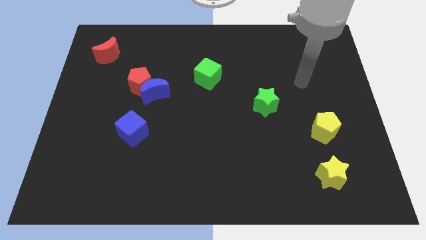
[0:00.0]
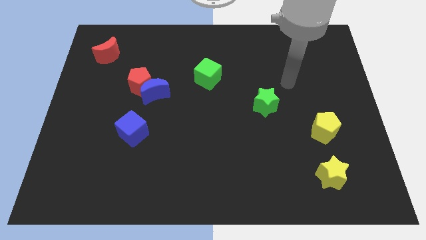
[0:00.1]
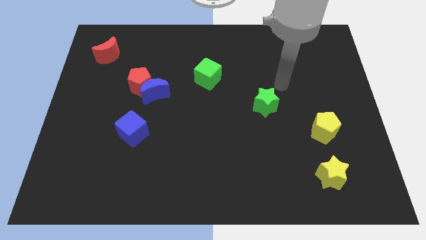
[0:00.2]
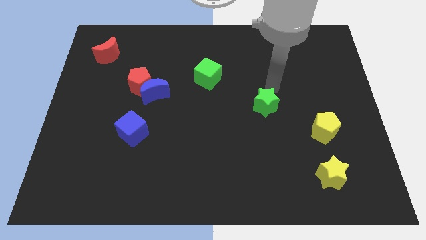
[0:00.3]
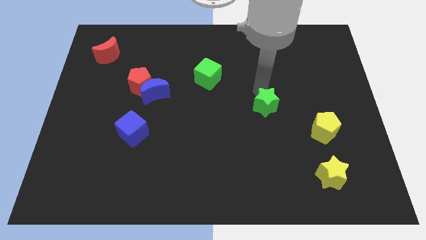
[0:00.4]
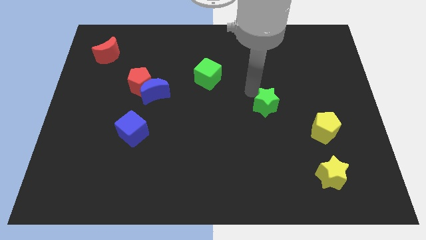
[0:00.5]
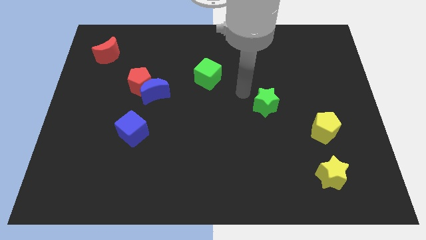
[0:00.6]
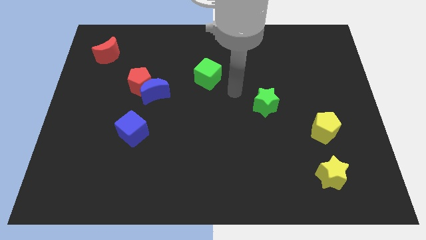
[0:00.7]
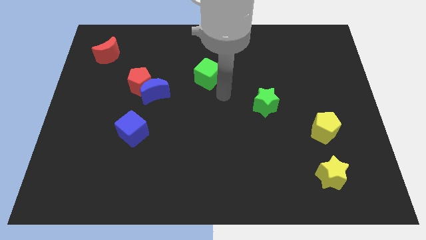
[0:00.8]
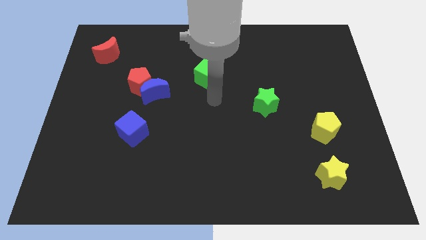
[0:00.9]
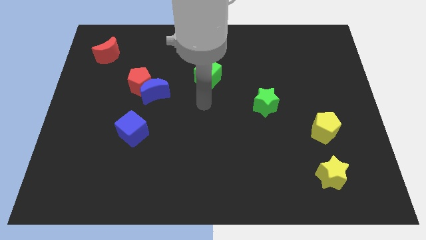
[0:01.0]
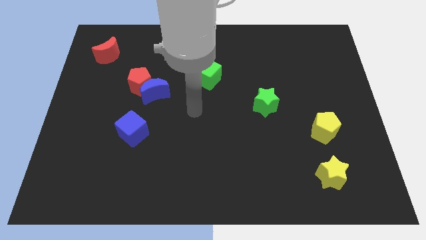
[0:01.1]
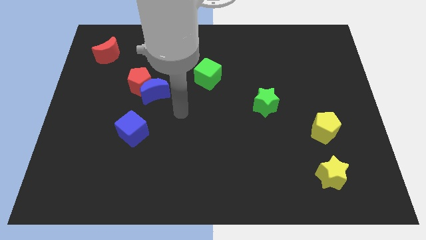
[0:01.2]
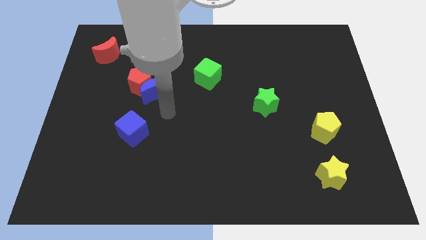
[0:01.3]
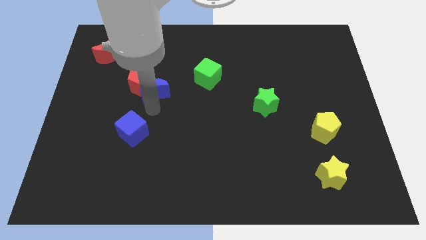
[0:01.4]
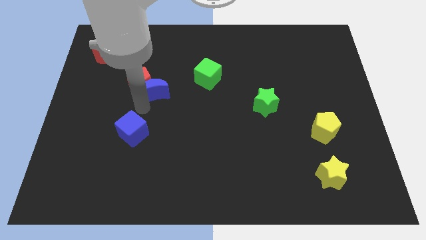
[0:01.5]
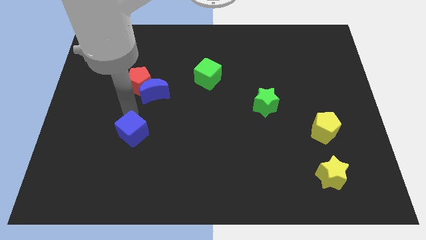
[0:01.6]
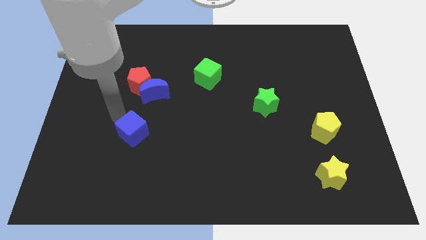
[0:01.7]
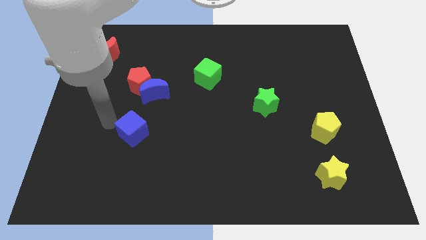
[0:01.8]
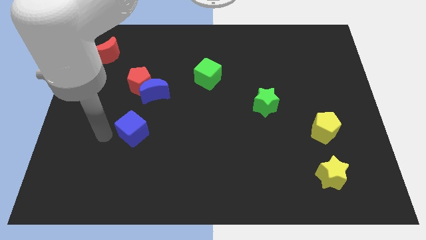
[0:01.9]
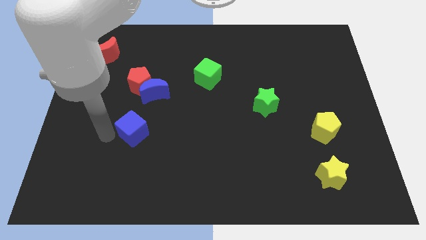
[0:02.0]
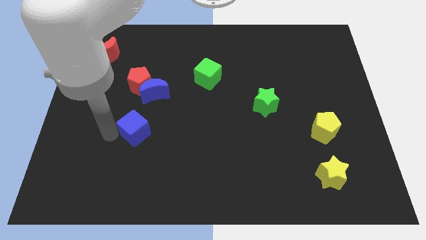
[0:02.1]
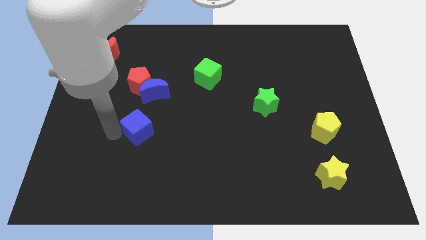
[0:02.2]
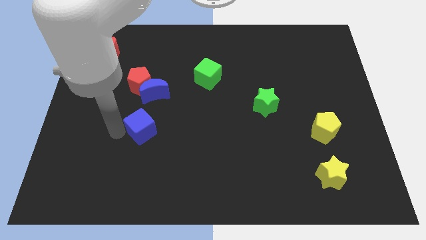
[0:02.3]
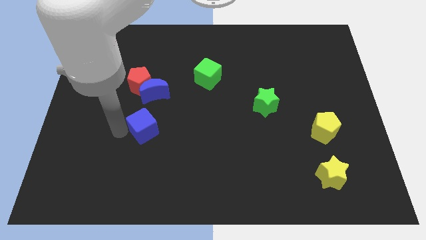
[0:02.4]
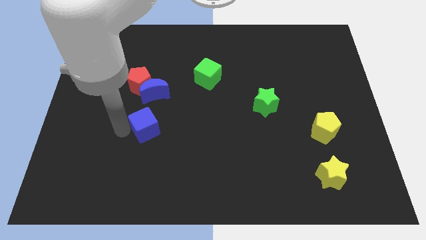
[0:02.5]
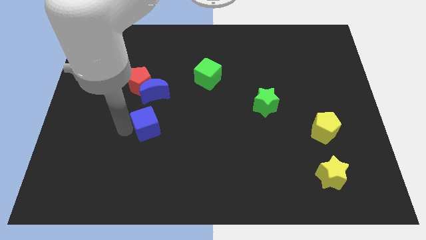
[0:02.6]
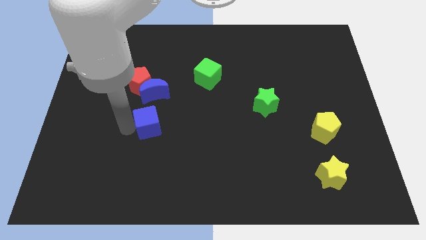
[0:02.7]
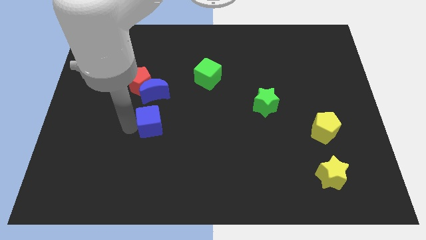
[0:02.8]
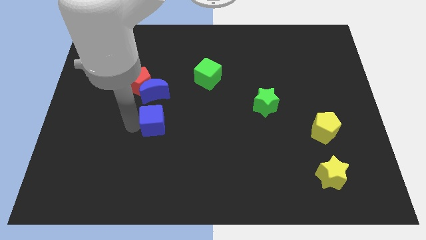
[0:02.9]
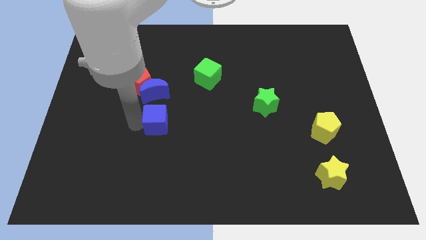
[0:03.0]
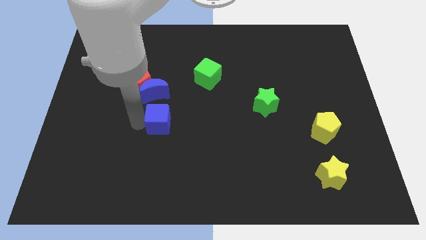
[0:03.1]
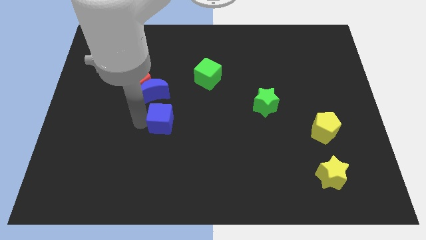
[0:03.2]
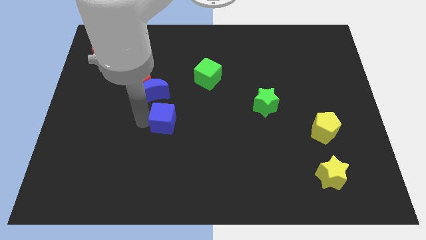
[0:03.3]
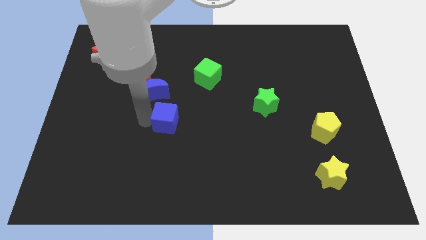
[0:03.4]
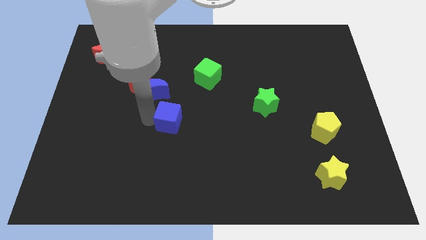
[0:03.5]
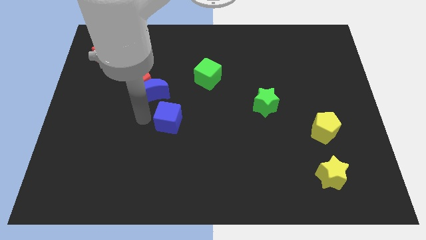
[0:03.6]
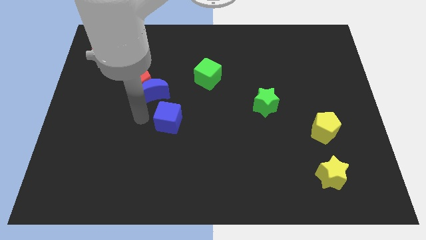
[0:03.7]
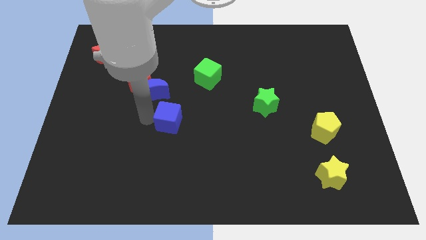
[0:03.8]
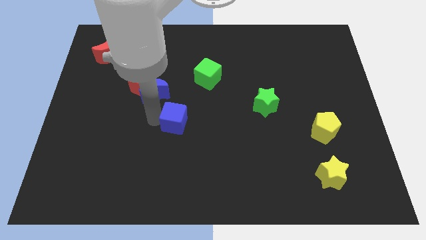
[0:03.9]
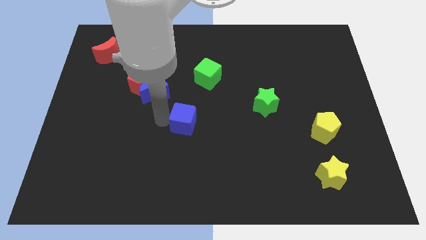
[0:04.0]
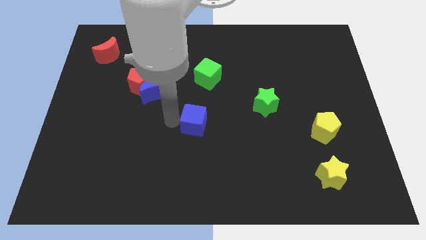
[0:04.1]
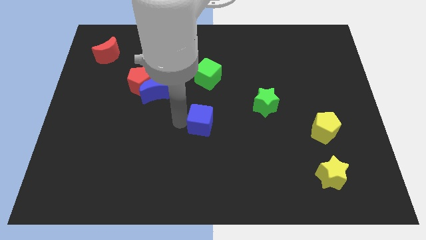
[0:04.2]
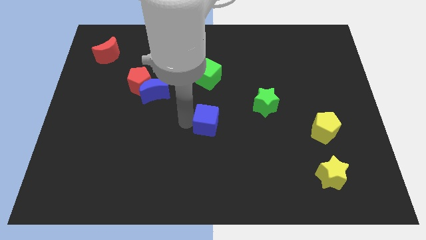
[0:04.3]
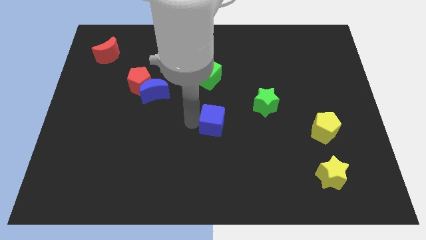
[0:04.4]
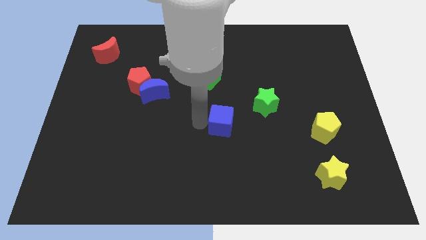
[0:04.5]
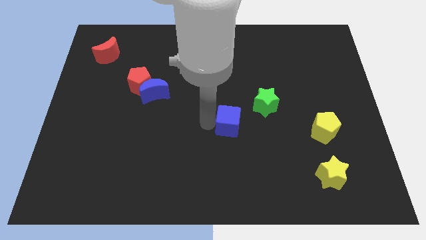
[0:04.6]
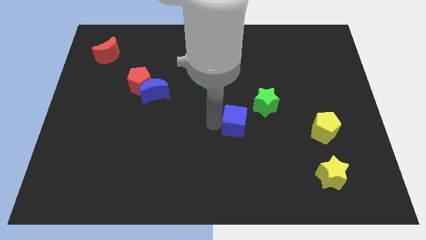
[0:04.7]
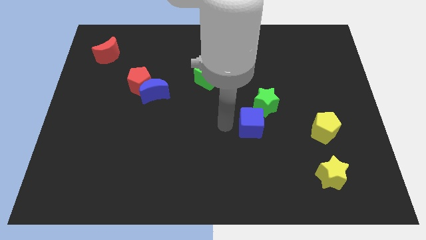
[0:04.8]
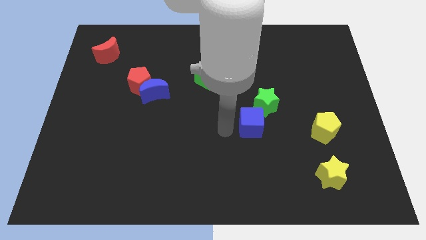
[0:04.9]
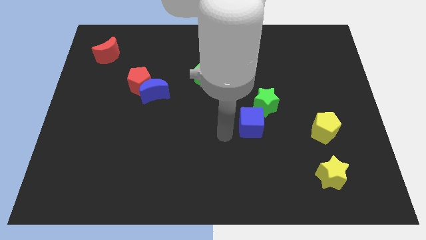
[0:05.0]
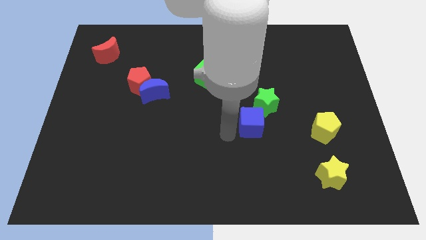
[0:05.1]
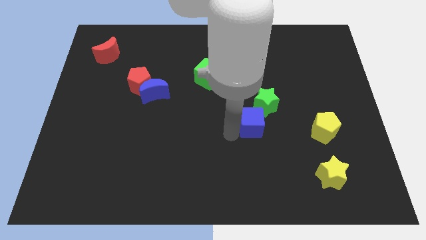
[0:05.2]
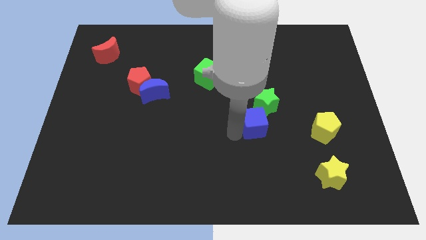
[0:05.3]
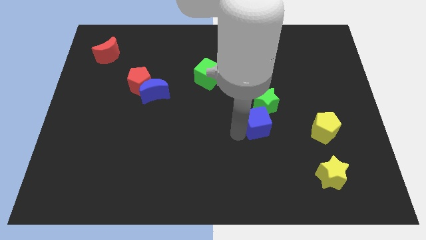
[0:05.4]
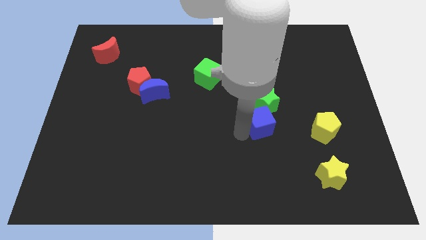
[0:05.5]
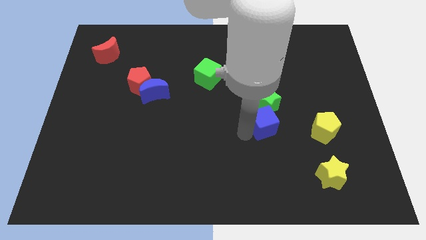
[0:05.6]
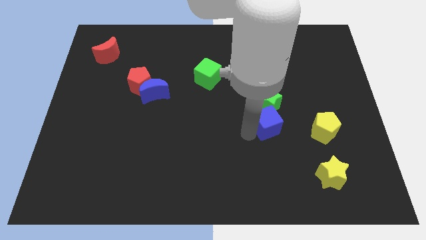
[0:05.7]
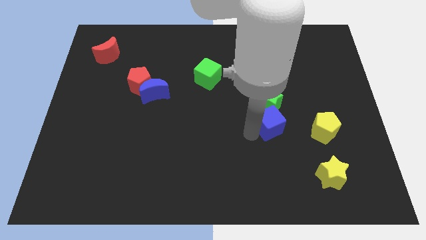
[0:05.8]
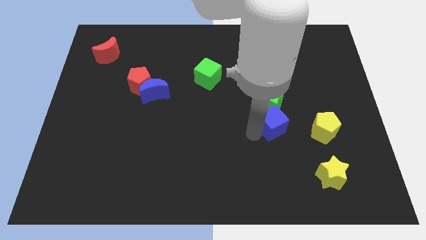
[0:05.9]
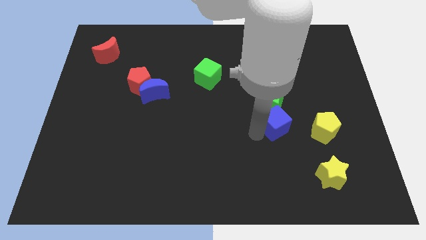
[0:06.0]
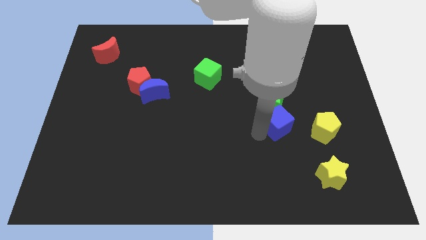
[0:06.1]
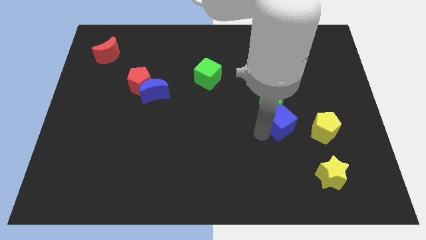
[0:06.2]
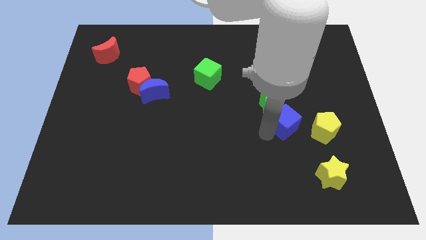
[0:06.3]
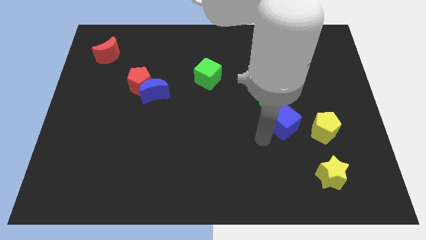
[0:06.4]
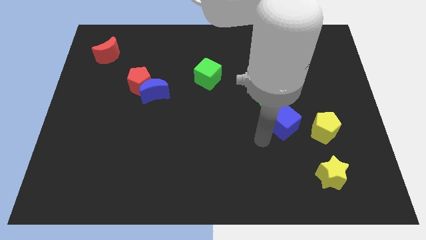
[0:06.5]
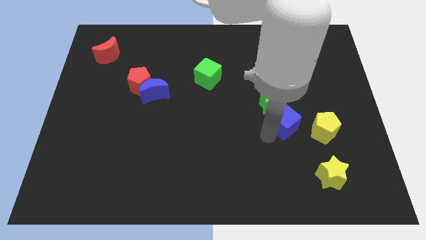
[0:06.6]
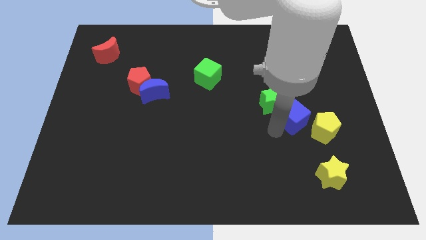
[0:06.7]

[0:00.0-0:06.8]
move the blue cube just right of the green star
